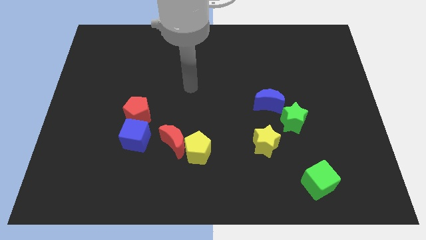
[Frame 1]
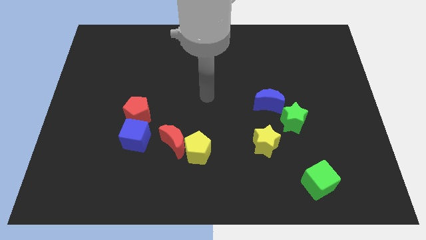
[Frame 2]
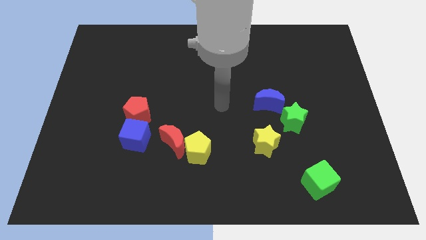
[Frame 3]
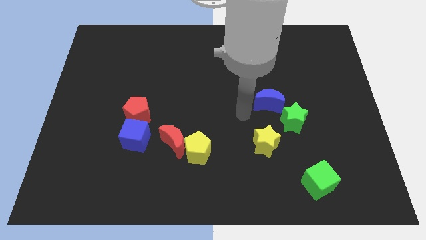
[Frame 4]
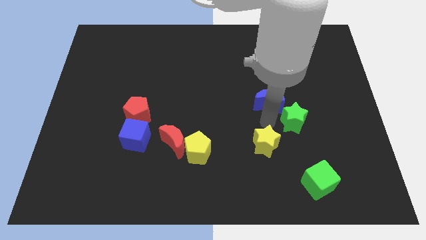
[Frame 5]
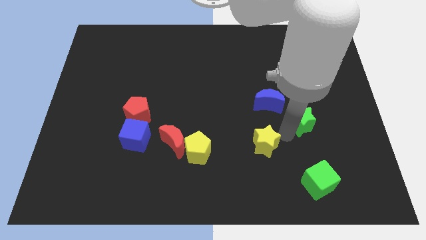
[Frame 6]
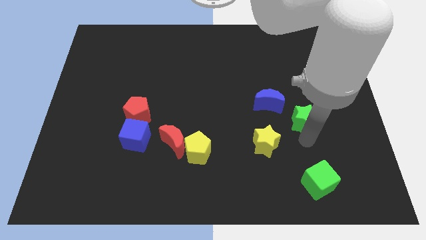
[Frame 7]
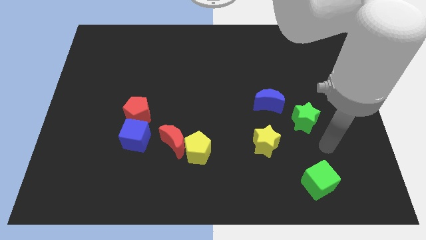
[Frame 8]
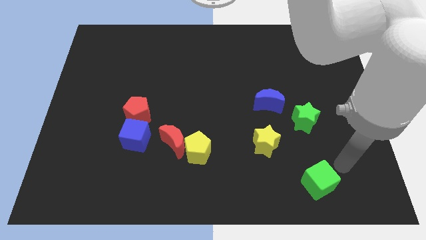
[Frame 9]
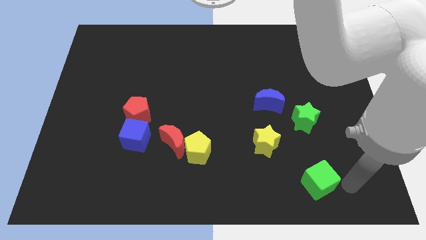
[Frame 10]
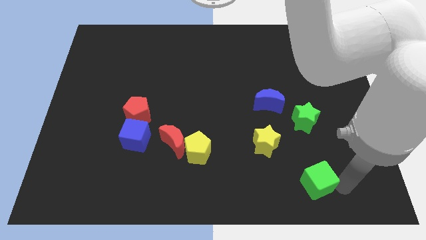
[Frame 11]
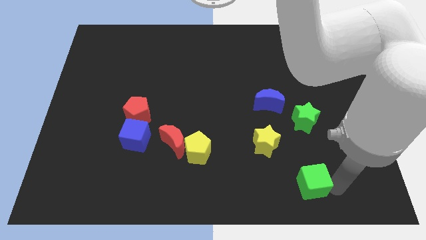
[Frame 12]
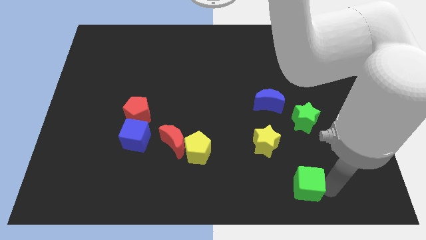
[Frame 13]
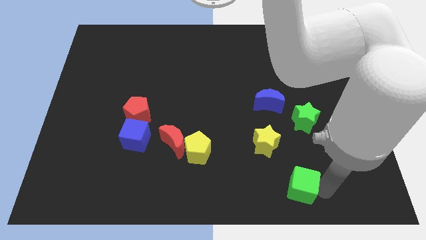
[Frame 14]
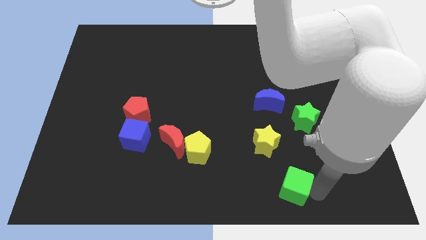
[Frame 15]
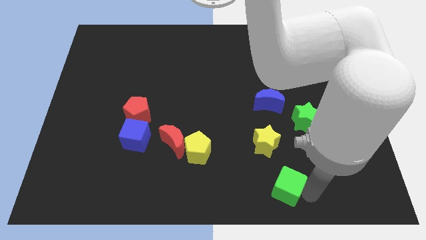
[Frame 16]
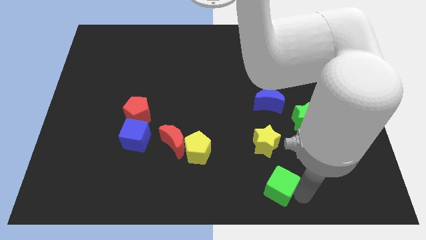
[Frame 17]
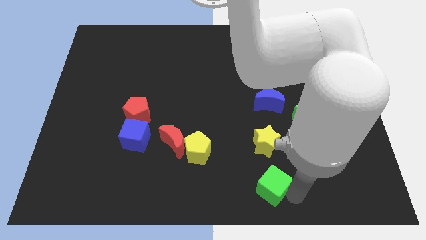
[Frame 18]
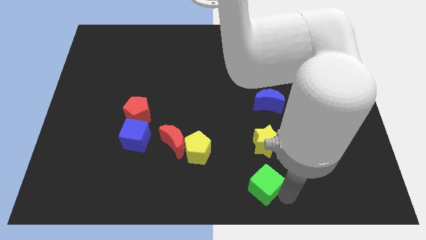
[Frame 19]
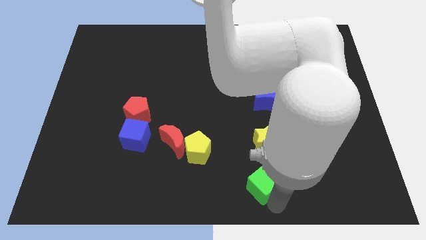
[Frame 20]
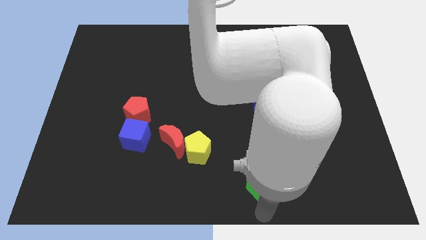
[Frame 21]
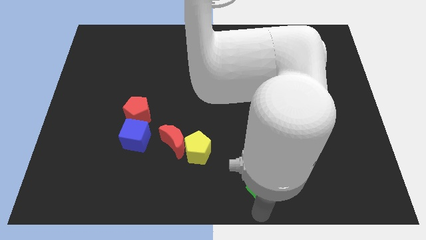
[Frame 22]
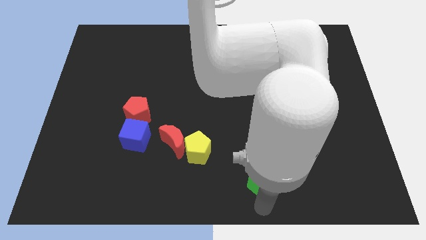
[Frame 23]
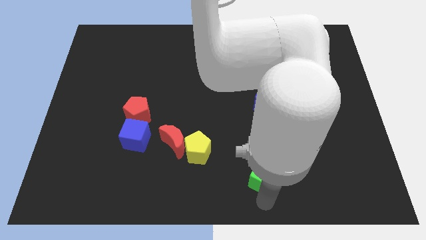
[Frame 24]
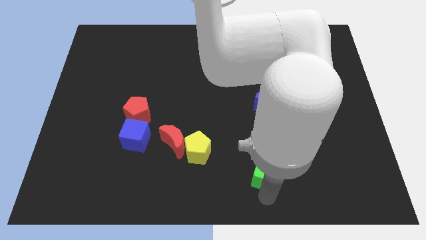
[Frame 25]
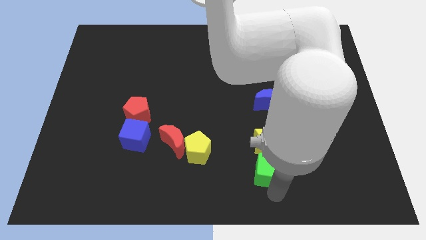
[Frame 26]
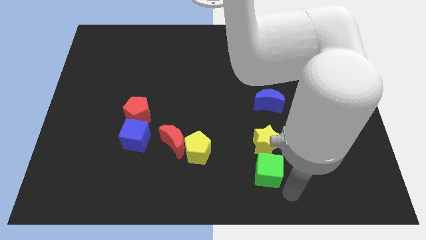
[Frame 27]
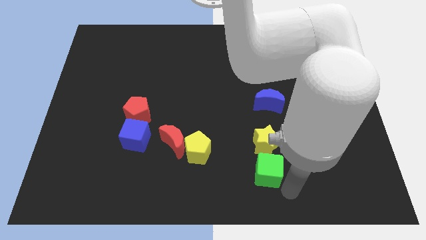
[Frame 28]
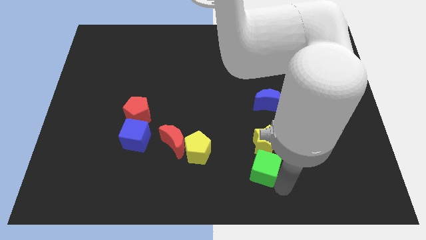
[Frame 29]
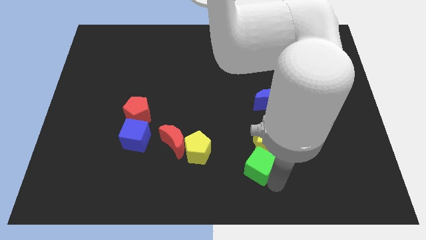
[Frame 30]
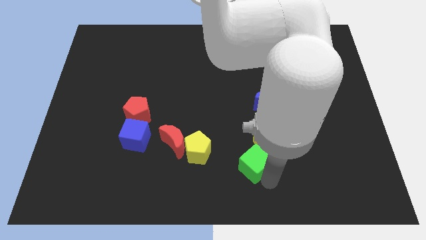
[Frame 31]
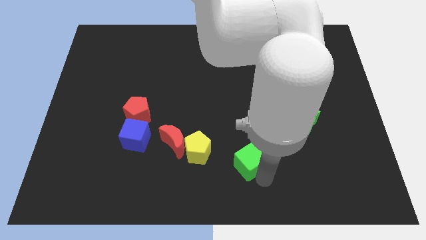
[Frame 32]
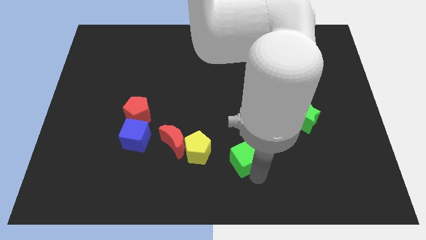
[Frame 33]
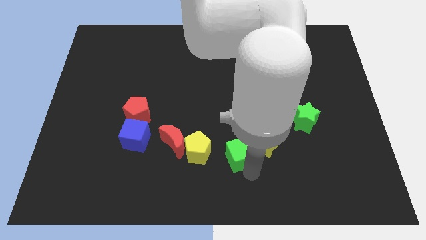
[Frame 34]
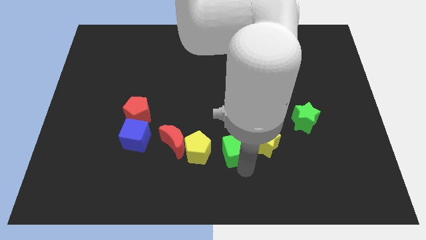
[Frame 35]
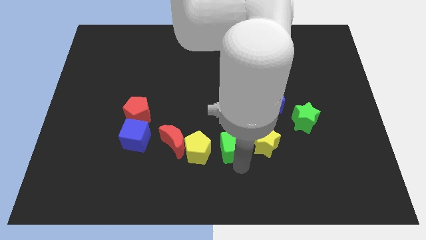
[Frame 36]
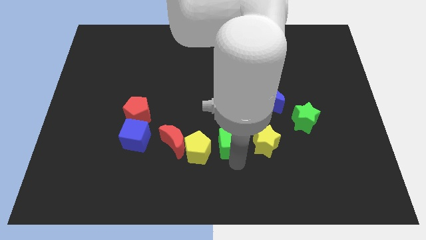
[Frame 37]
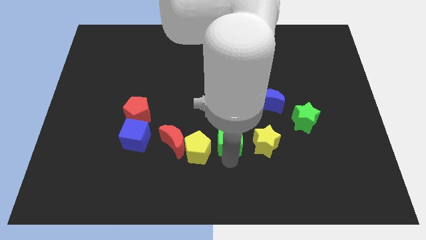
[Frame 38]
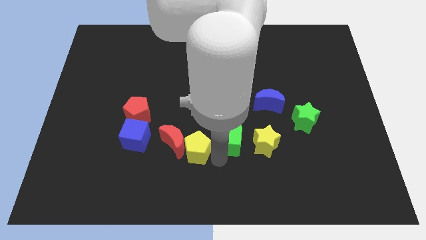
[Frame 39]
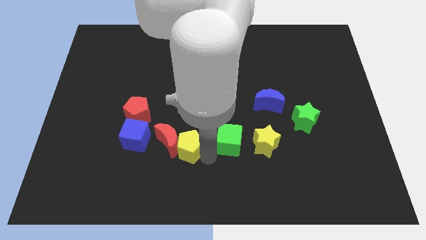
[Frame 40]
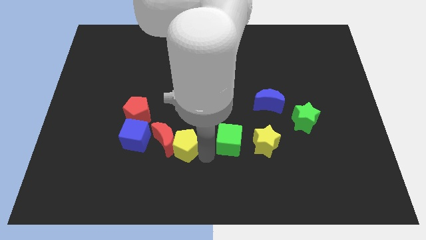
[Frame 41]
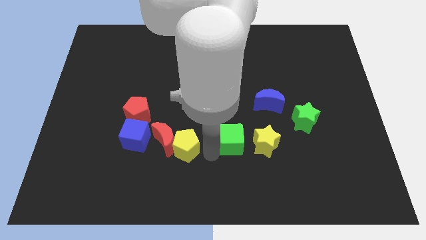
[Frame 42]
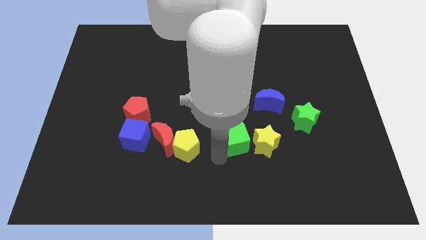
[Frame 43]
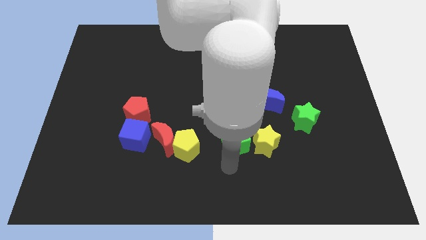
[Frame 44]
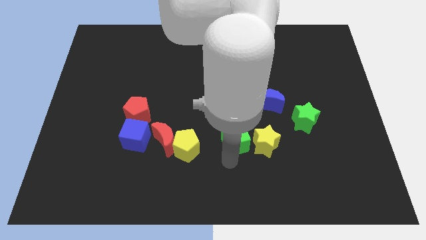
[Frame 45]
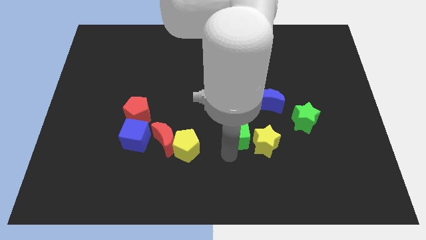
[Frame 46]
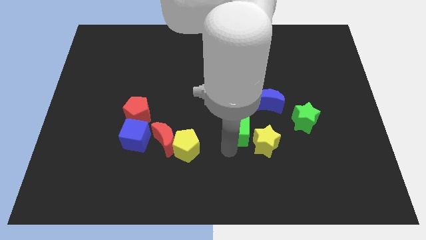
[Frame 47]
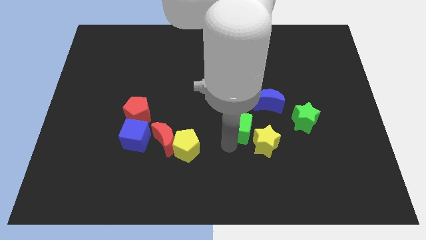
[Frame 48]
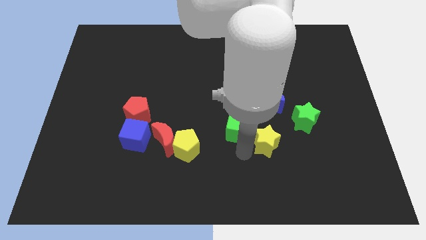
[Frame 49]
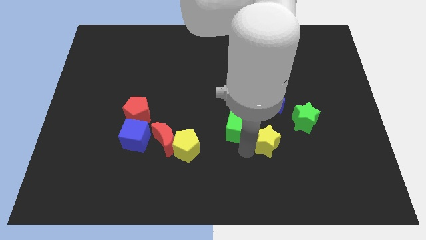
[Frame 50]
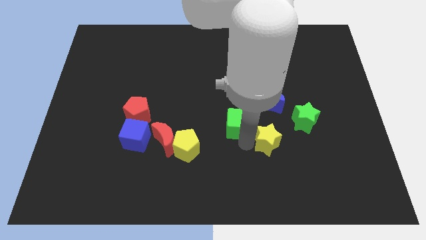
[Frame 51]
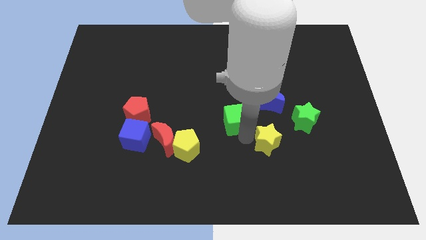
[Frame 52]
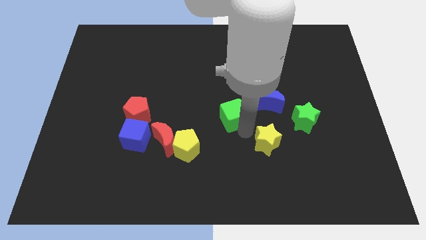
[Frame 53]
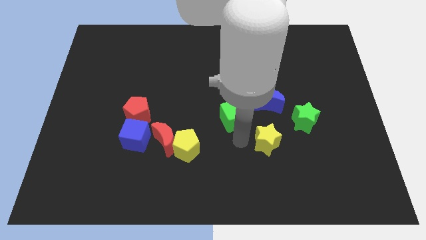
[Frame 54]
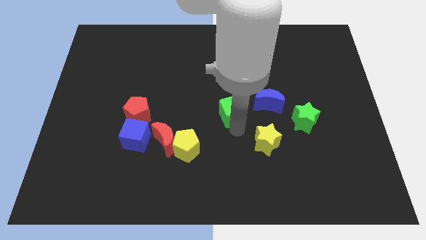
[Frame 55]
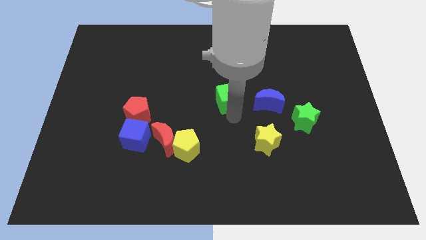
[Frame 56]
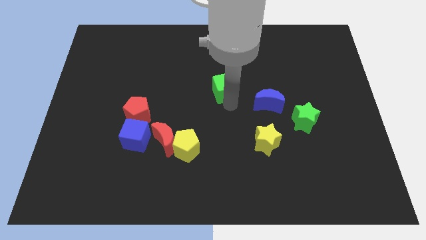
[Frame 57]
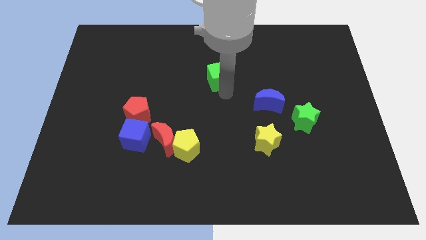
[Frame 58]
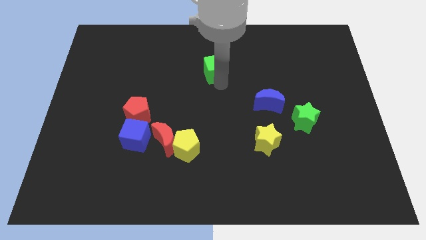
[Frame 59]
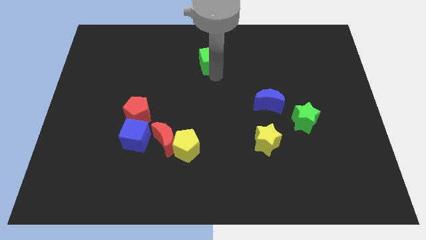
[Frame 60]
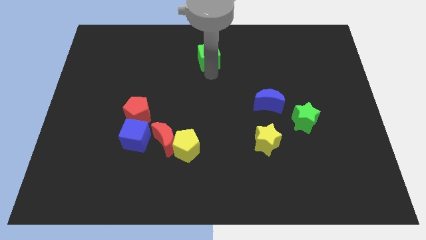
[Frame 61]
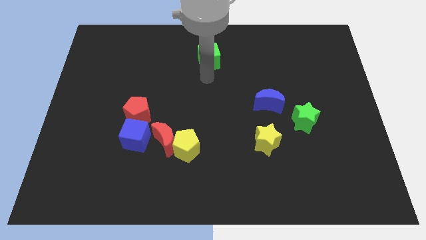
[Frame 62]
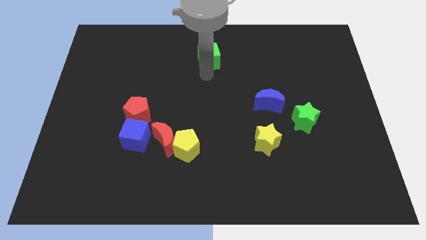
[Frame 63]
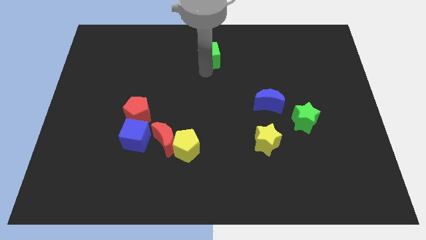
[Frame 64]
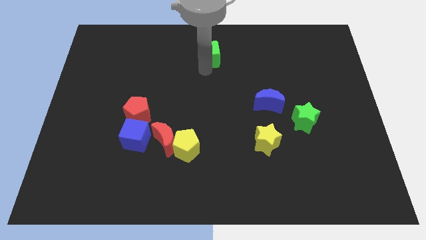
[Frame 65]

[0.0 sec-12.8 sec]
slide the green cube to the top side

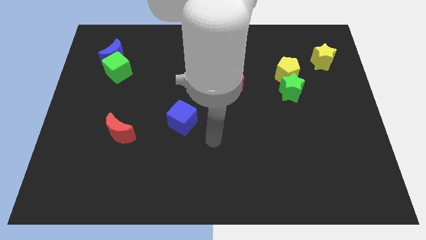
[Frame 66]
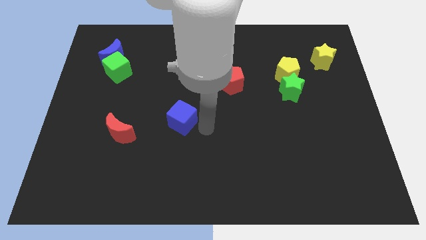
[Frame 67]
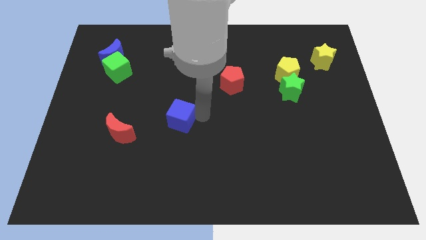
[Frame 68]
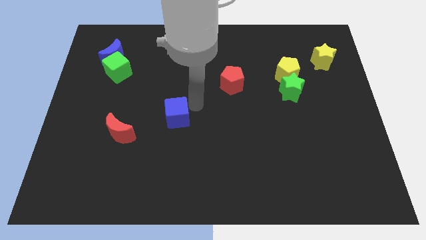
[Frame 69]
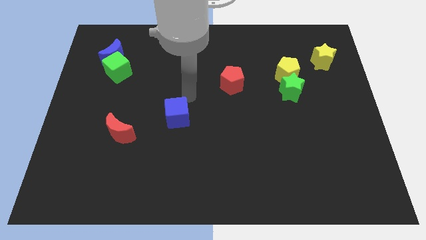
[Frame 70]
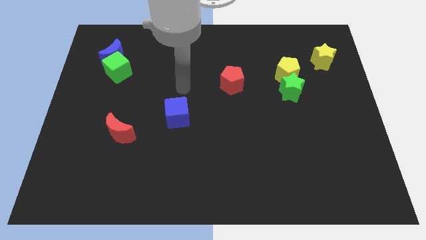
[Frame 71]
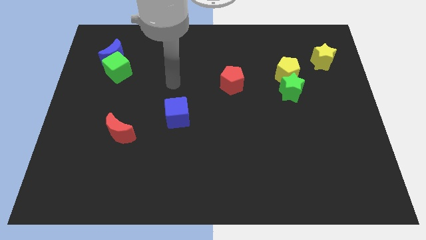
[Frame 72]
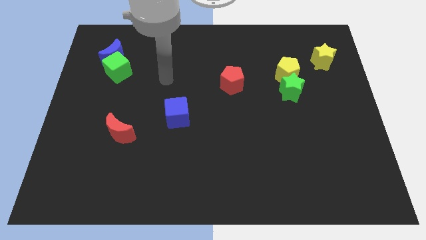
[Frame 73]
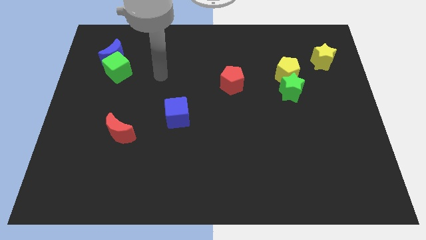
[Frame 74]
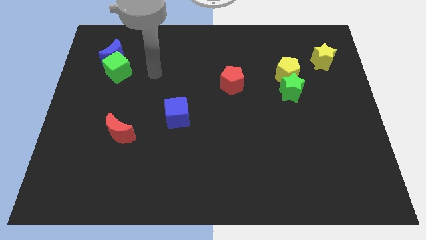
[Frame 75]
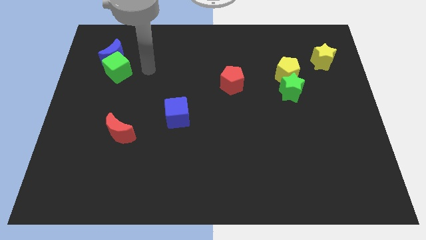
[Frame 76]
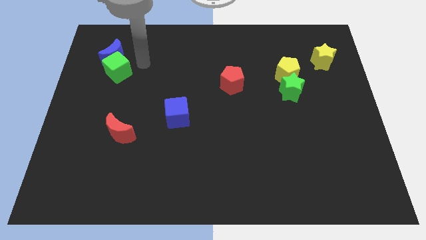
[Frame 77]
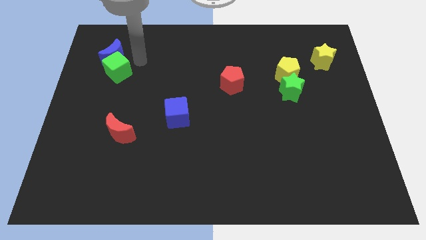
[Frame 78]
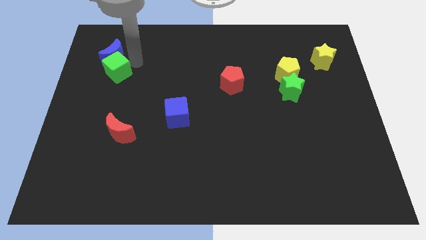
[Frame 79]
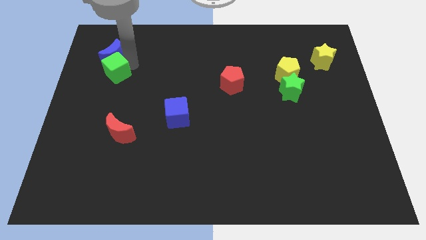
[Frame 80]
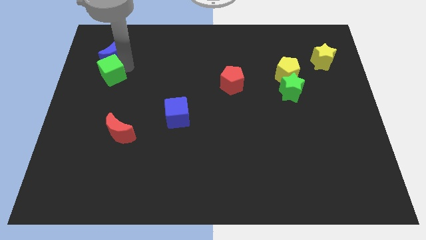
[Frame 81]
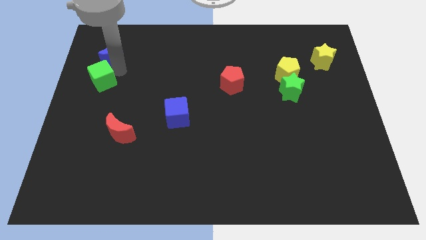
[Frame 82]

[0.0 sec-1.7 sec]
move the green cube to the left side of the board
